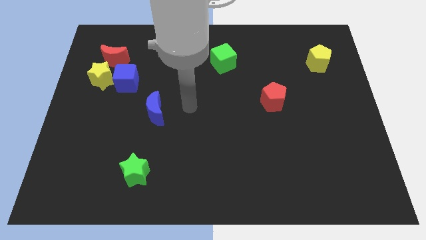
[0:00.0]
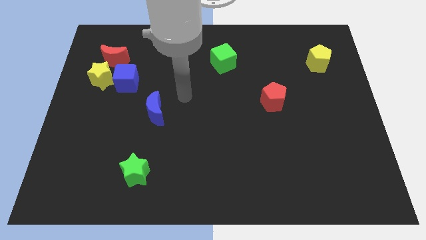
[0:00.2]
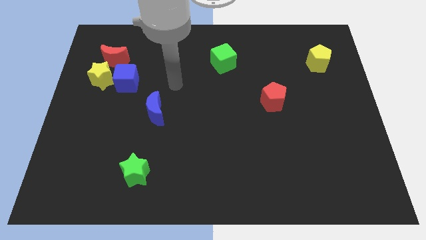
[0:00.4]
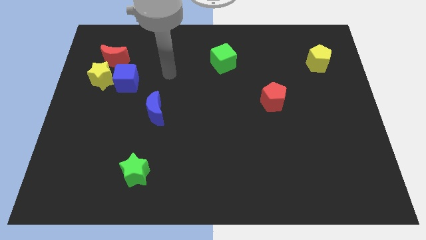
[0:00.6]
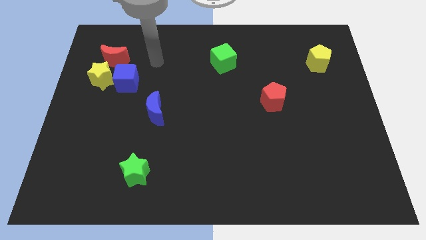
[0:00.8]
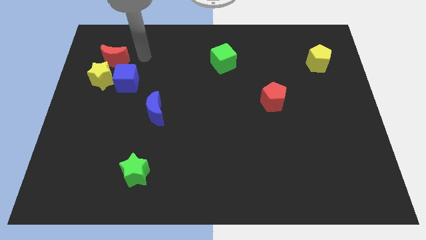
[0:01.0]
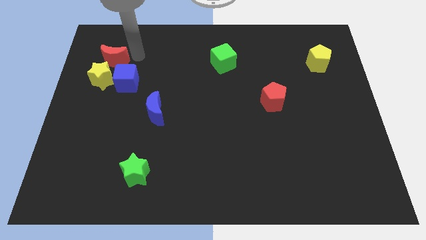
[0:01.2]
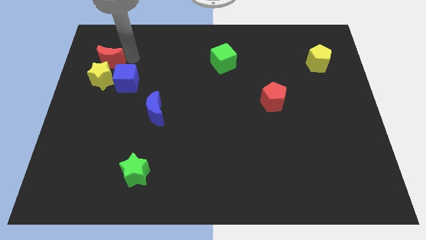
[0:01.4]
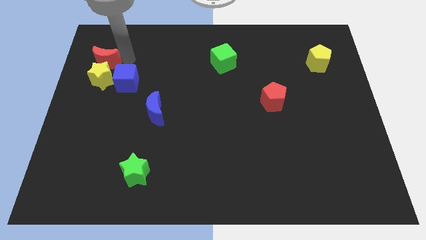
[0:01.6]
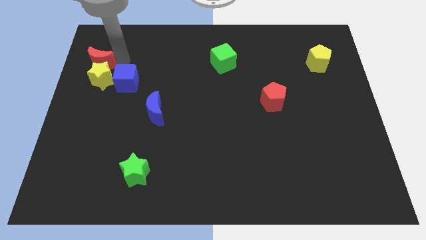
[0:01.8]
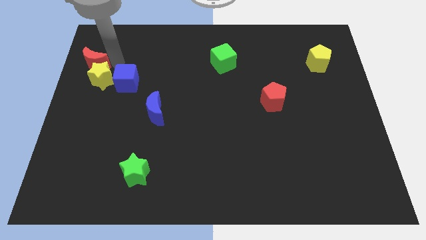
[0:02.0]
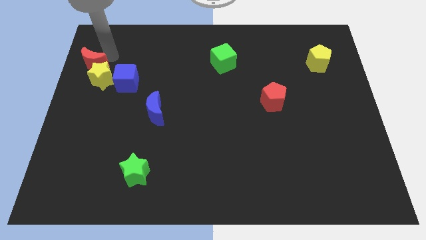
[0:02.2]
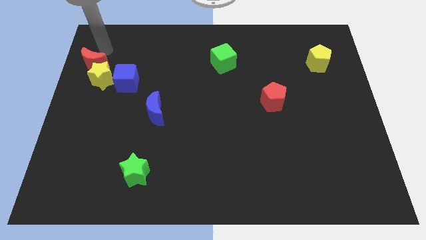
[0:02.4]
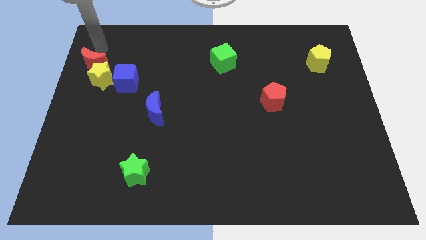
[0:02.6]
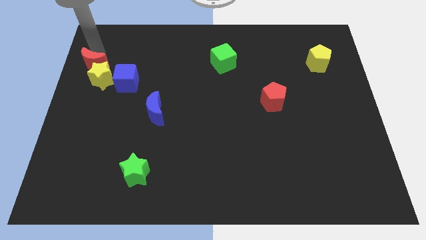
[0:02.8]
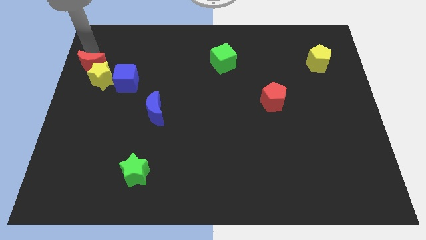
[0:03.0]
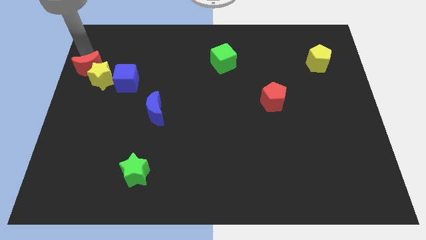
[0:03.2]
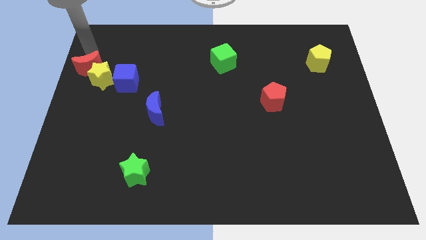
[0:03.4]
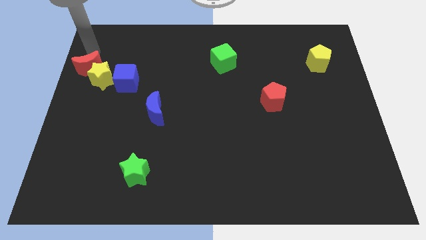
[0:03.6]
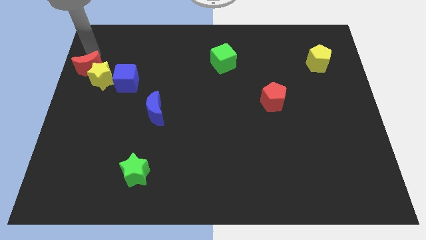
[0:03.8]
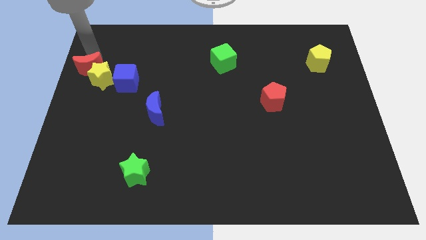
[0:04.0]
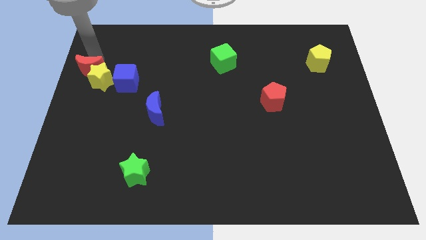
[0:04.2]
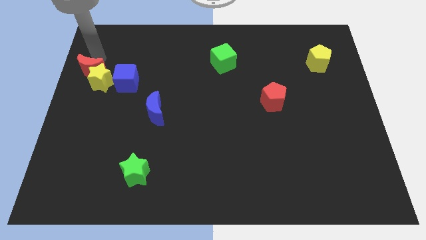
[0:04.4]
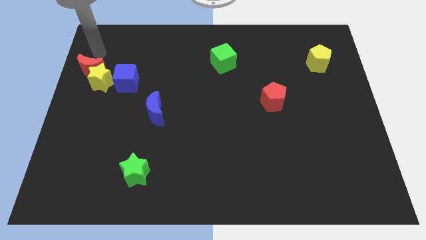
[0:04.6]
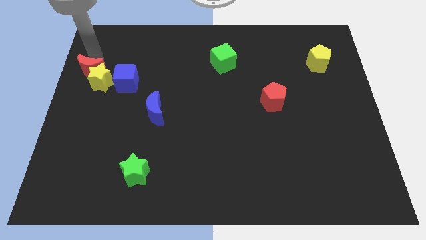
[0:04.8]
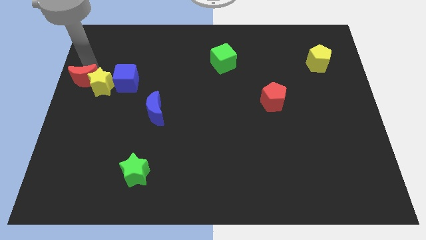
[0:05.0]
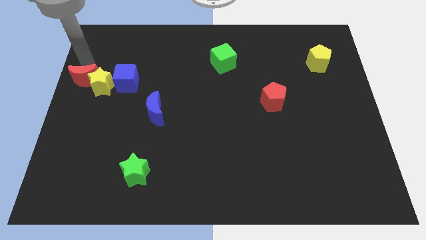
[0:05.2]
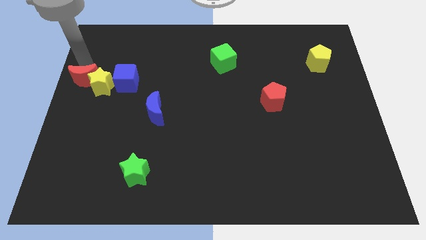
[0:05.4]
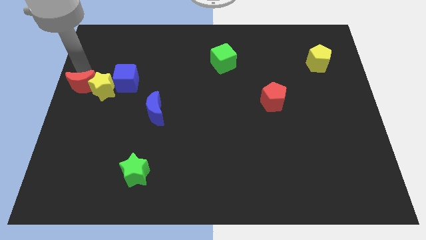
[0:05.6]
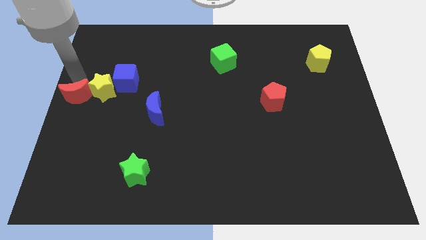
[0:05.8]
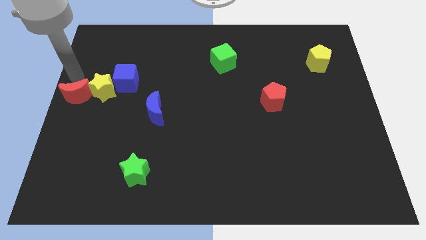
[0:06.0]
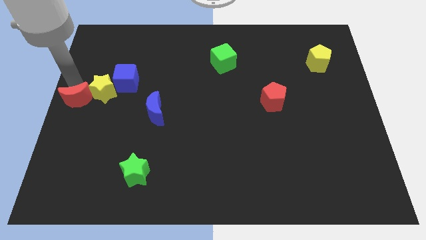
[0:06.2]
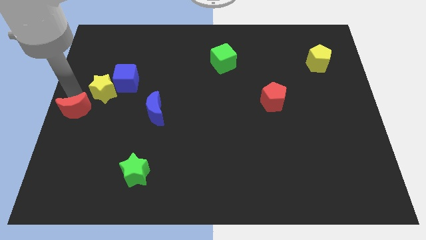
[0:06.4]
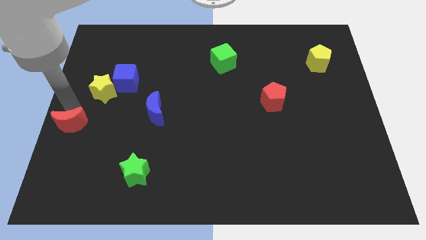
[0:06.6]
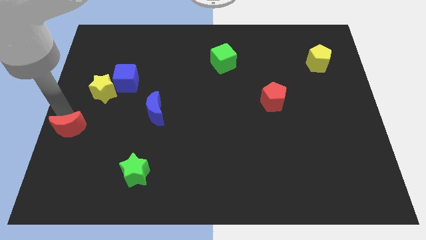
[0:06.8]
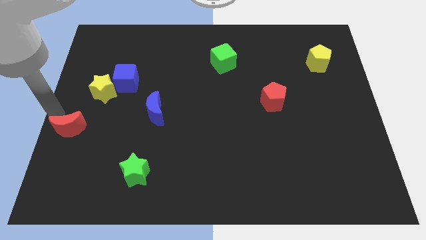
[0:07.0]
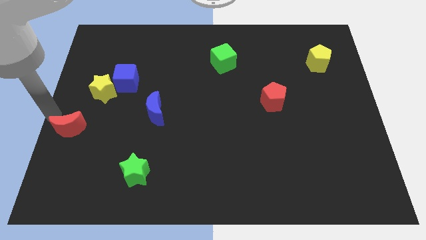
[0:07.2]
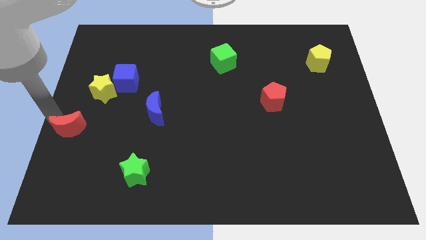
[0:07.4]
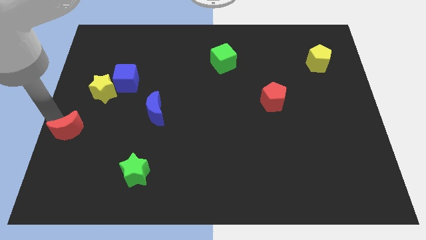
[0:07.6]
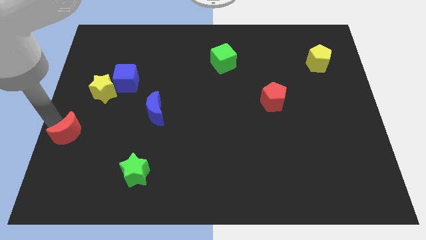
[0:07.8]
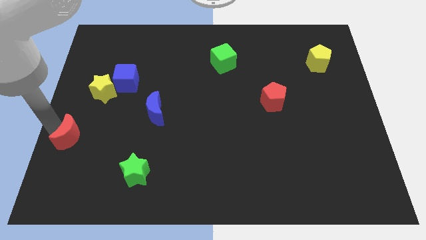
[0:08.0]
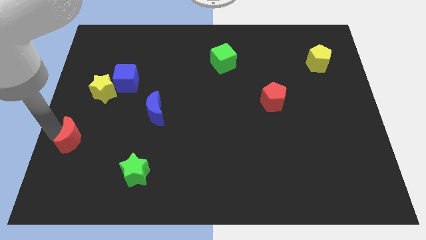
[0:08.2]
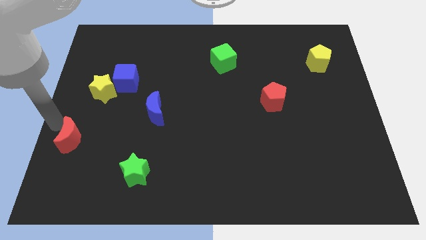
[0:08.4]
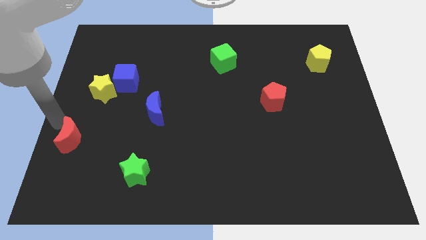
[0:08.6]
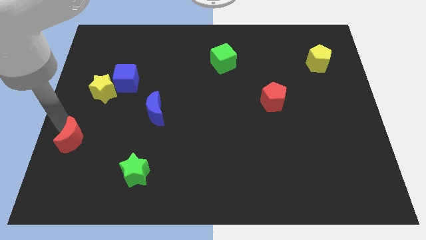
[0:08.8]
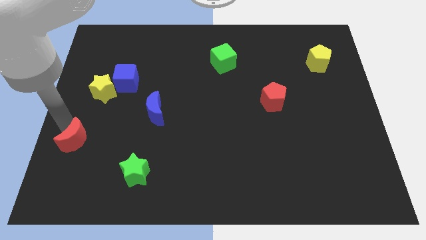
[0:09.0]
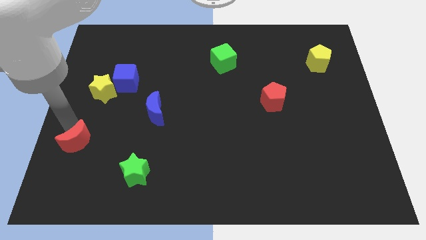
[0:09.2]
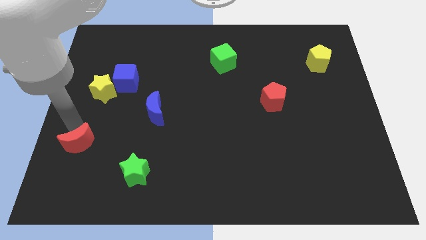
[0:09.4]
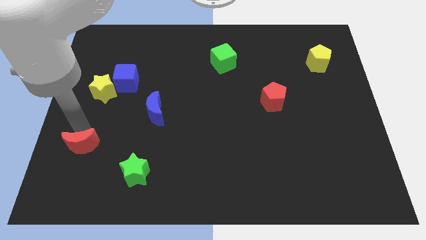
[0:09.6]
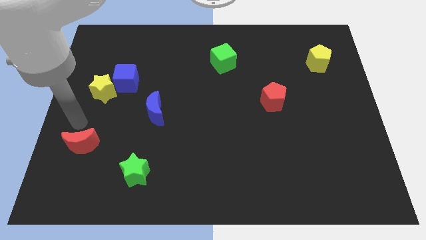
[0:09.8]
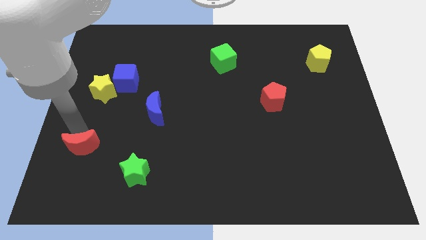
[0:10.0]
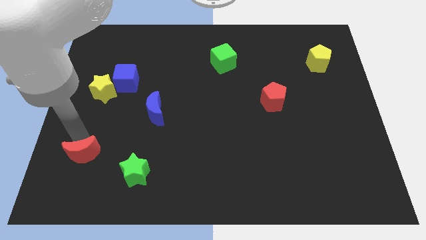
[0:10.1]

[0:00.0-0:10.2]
move the red moon just left of the green star

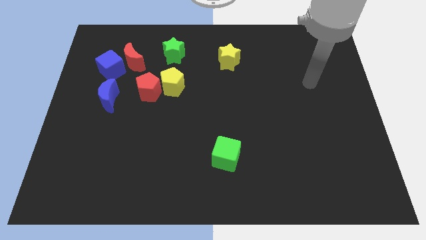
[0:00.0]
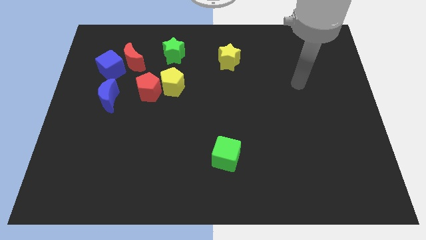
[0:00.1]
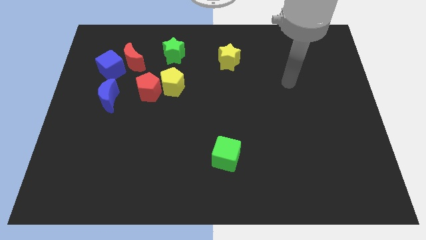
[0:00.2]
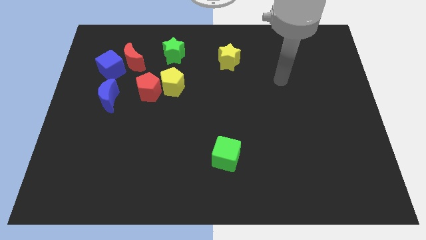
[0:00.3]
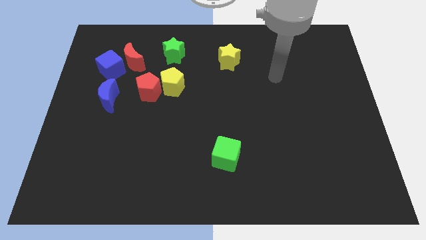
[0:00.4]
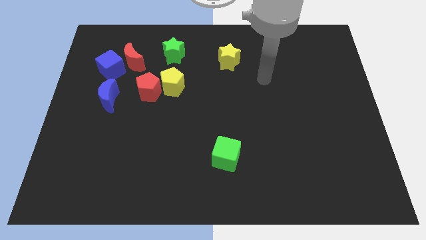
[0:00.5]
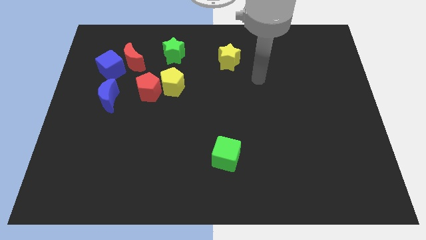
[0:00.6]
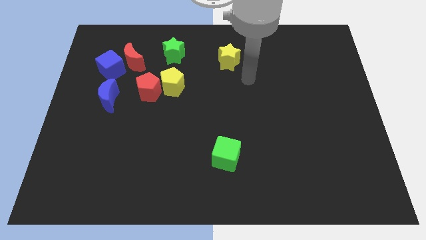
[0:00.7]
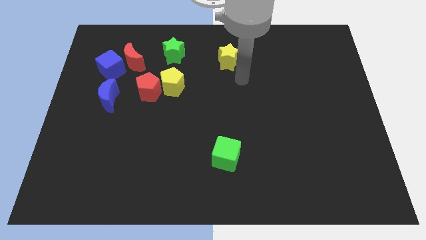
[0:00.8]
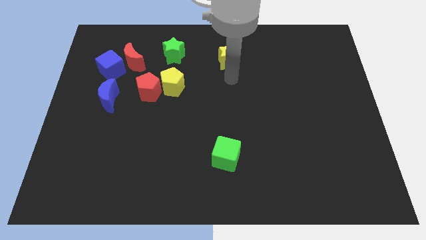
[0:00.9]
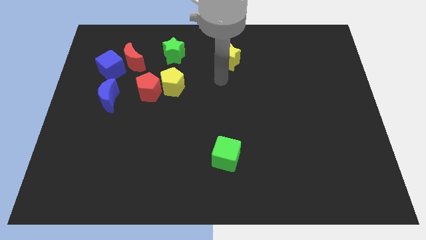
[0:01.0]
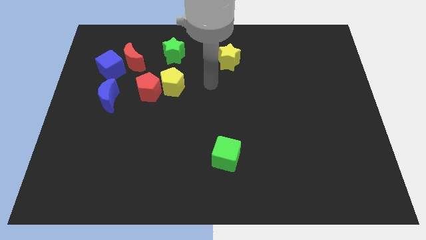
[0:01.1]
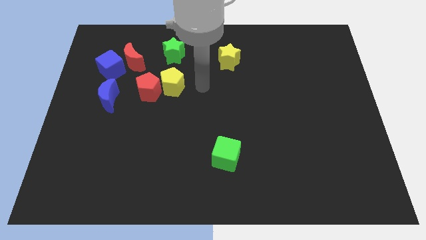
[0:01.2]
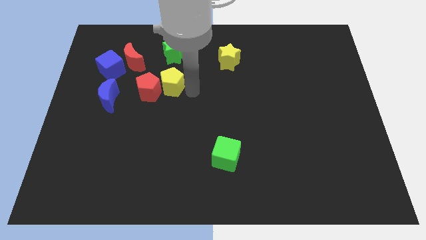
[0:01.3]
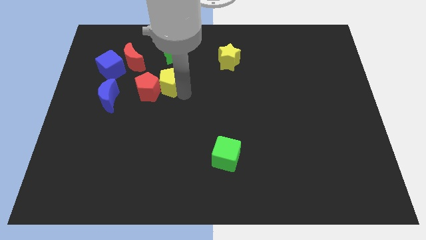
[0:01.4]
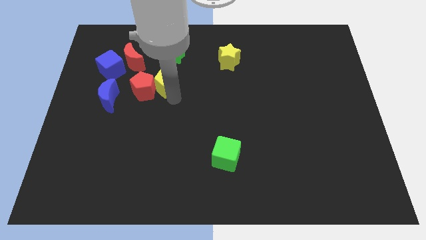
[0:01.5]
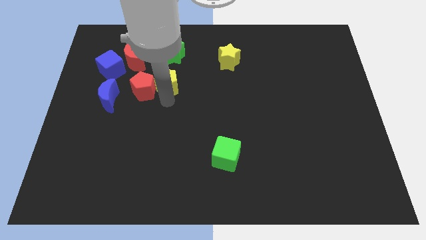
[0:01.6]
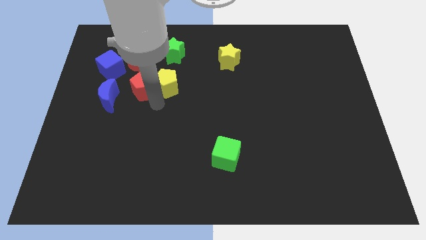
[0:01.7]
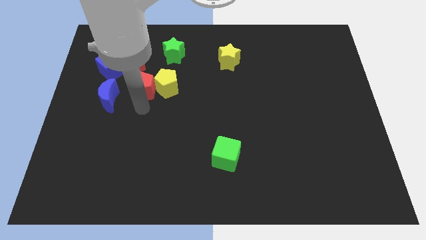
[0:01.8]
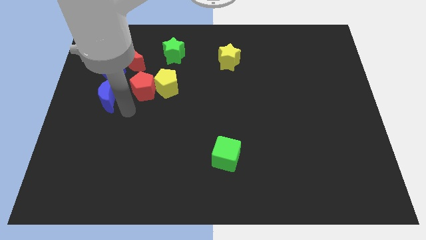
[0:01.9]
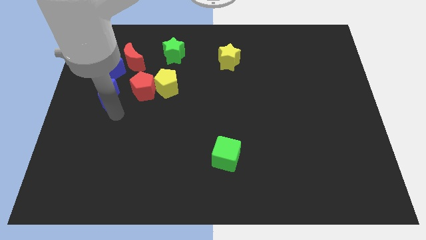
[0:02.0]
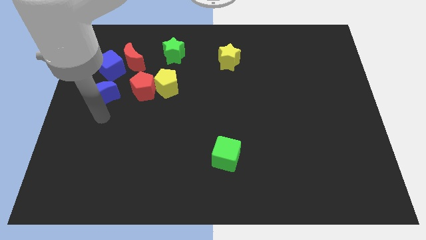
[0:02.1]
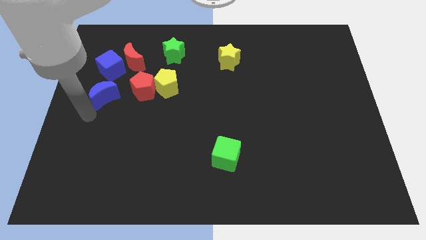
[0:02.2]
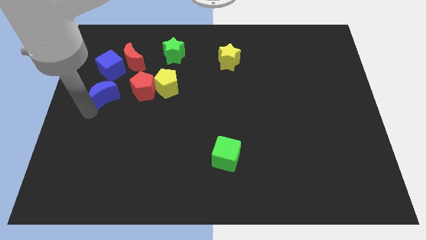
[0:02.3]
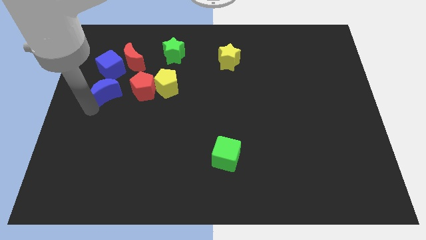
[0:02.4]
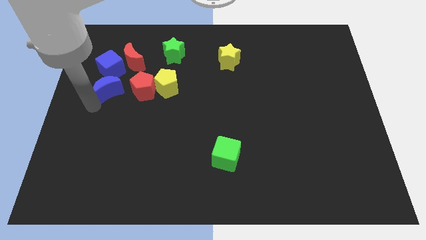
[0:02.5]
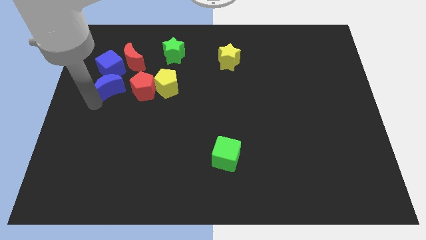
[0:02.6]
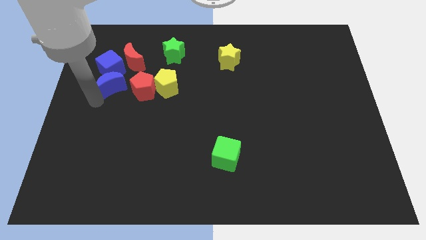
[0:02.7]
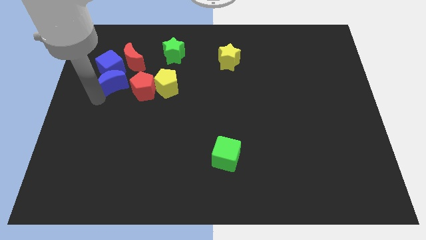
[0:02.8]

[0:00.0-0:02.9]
push the blue moon to the top left side of the red pentagon

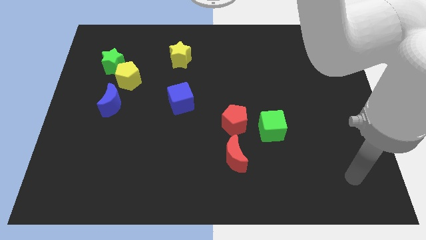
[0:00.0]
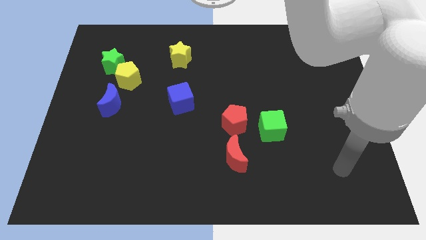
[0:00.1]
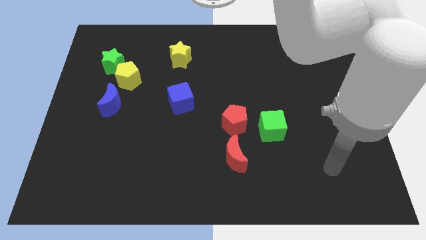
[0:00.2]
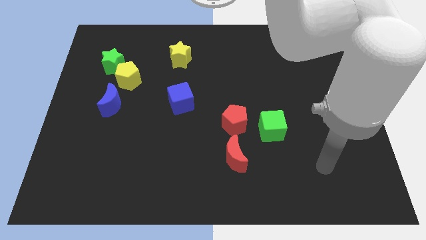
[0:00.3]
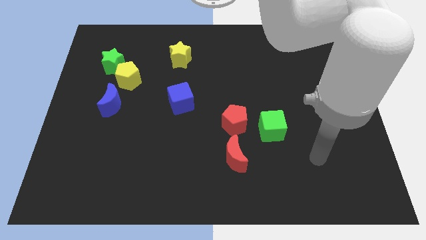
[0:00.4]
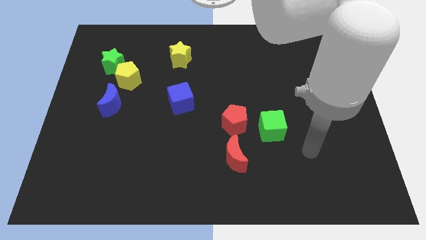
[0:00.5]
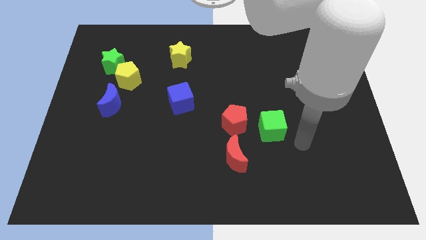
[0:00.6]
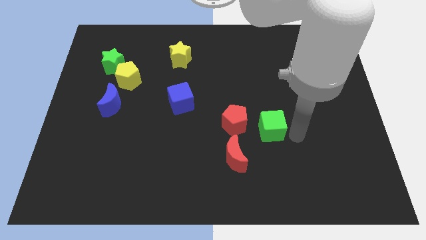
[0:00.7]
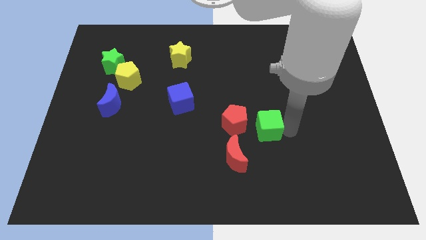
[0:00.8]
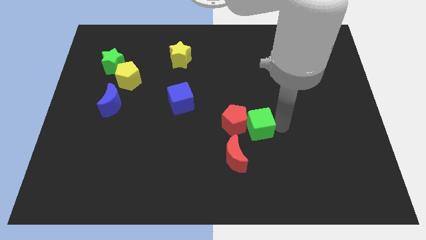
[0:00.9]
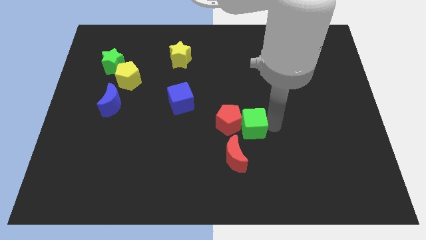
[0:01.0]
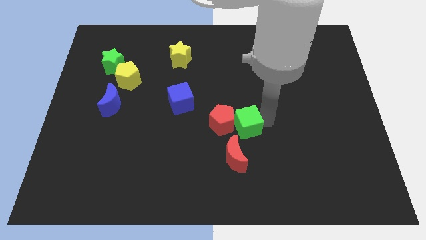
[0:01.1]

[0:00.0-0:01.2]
move the red pentagon diagonally up and to the left of the red moon
